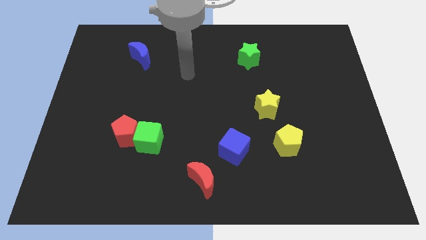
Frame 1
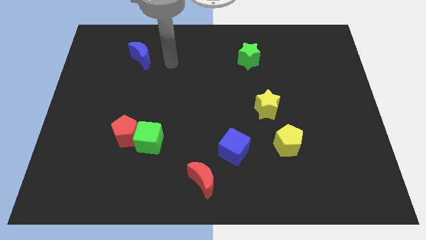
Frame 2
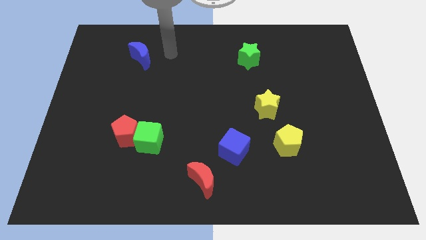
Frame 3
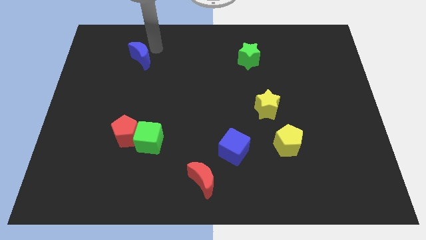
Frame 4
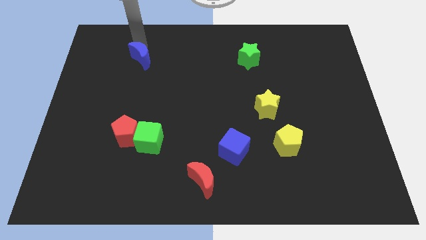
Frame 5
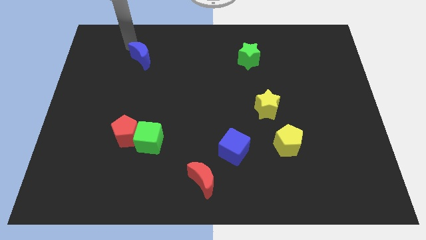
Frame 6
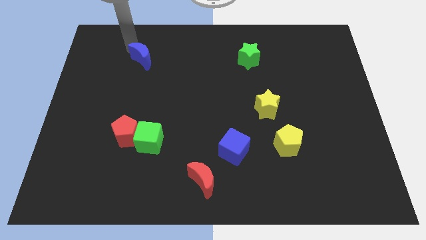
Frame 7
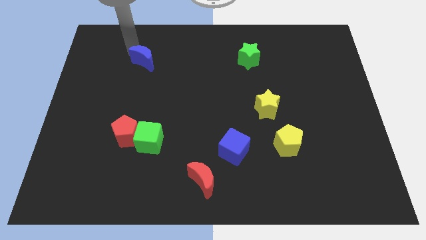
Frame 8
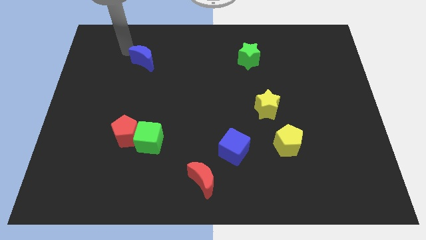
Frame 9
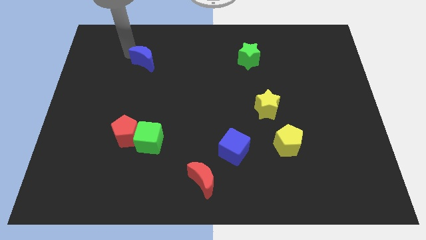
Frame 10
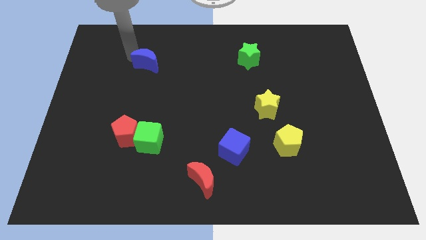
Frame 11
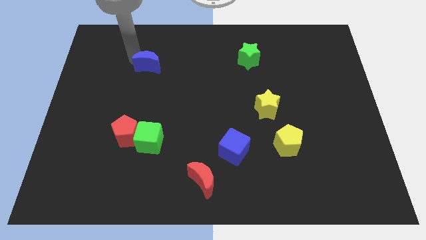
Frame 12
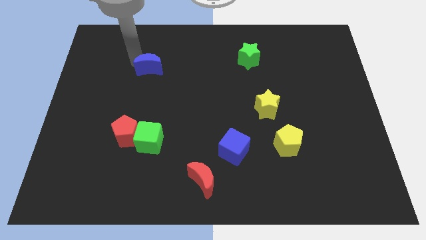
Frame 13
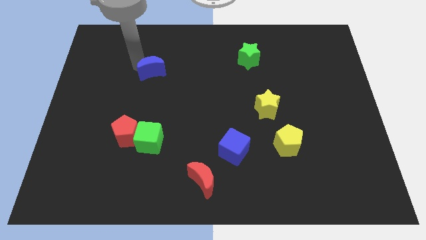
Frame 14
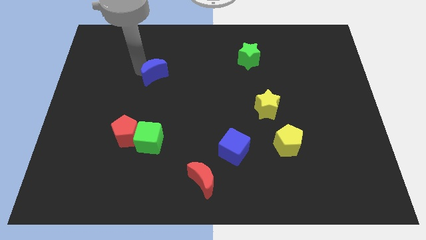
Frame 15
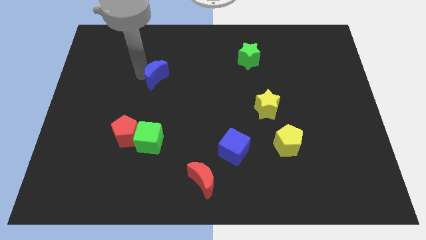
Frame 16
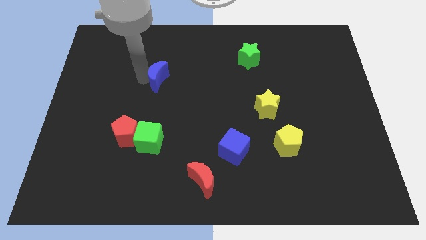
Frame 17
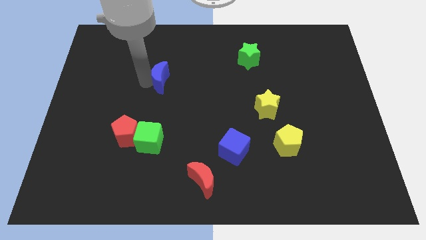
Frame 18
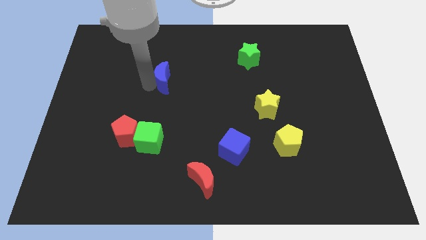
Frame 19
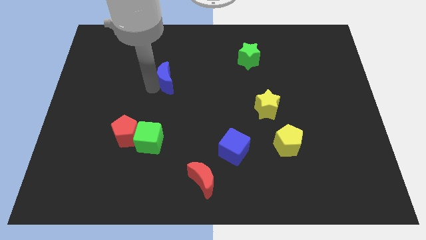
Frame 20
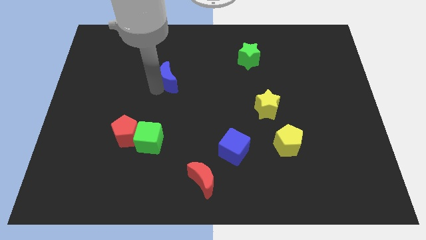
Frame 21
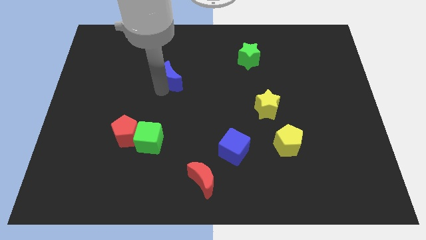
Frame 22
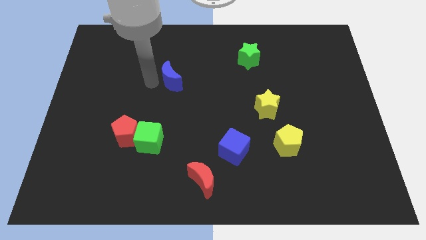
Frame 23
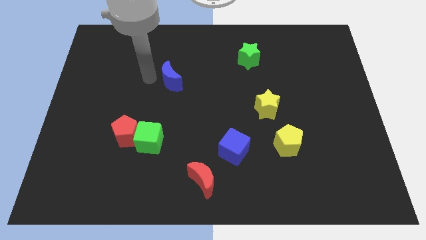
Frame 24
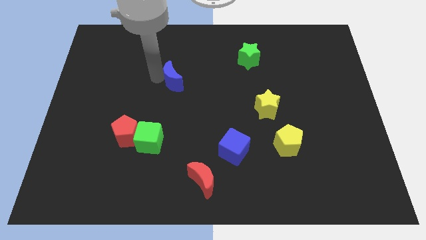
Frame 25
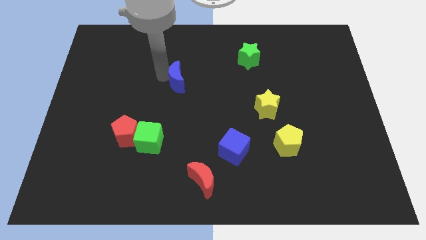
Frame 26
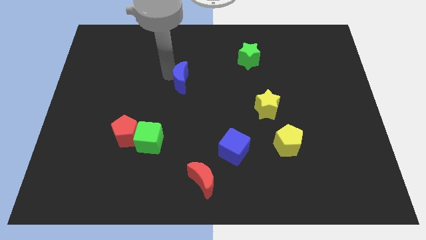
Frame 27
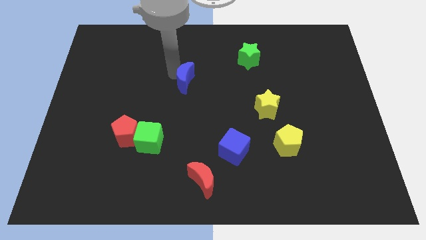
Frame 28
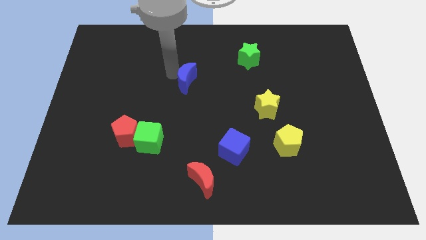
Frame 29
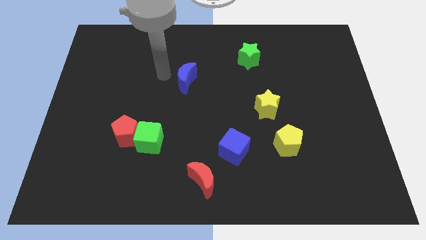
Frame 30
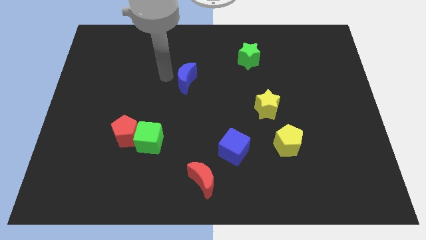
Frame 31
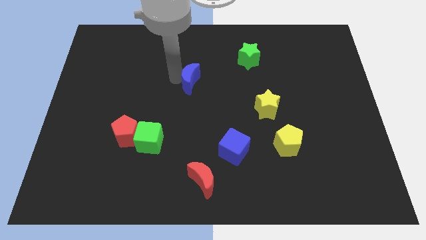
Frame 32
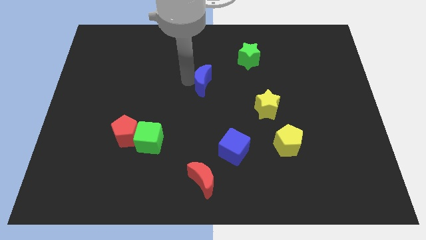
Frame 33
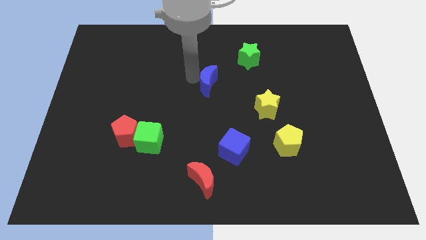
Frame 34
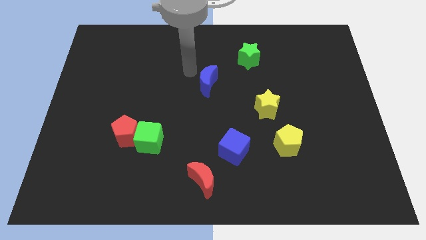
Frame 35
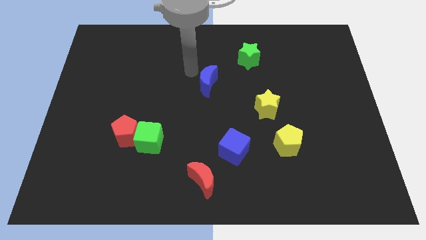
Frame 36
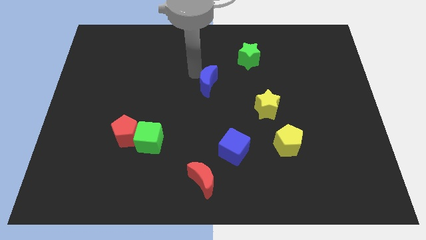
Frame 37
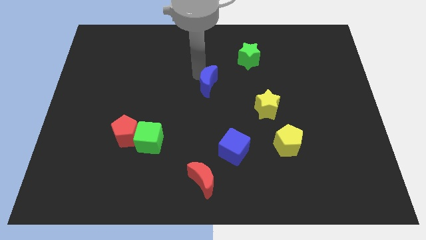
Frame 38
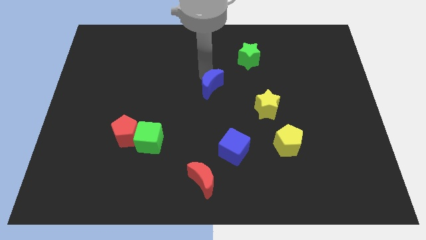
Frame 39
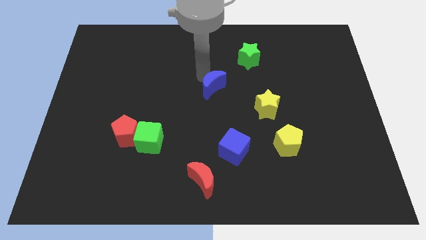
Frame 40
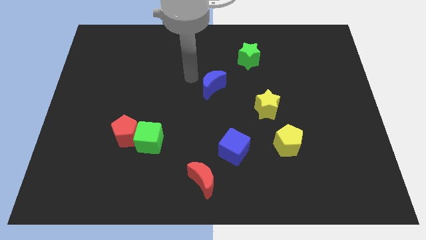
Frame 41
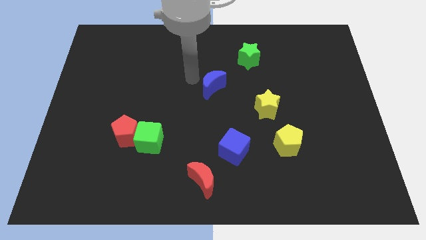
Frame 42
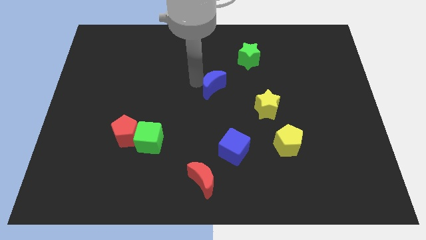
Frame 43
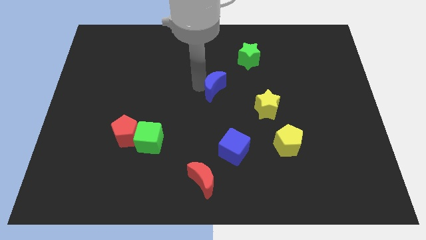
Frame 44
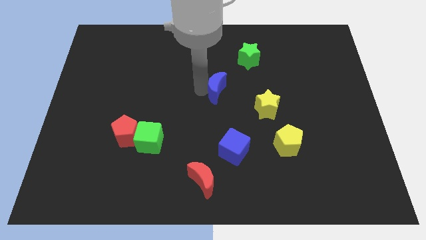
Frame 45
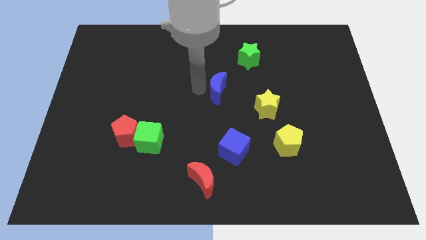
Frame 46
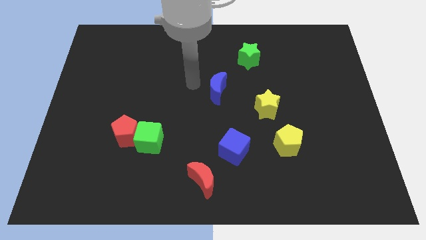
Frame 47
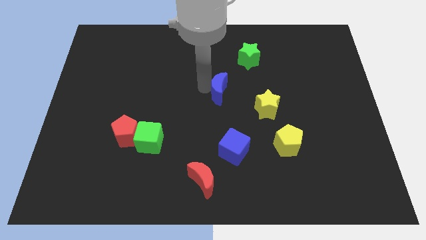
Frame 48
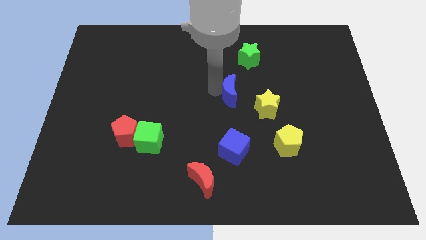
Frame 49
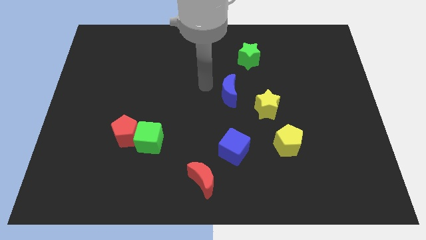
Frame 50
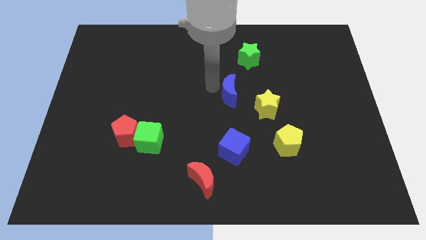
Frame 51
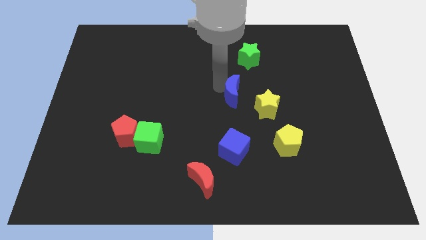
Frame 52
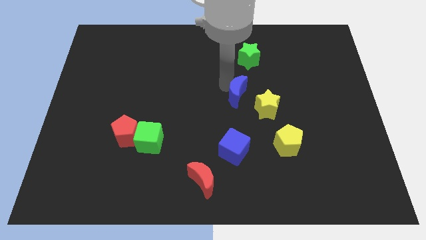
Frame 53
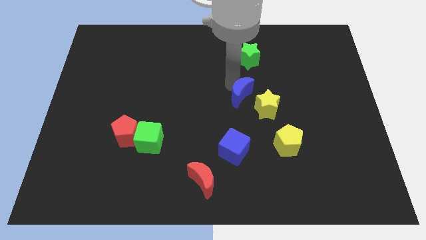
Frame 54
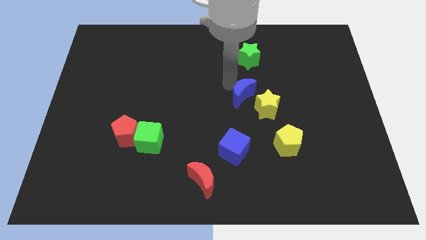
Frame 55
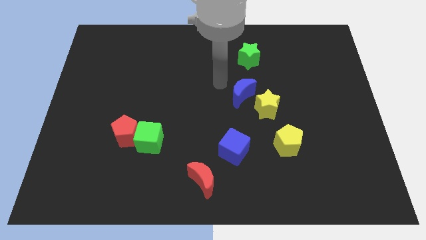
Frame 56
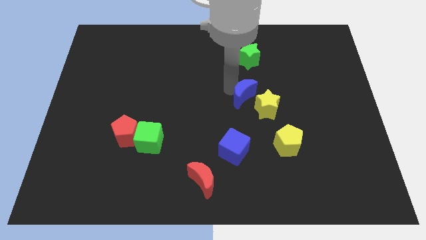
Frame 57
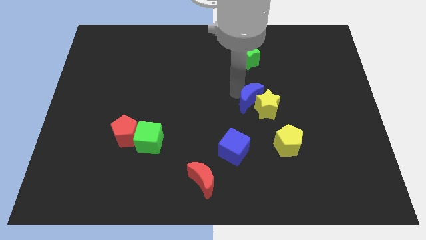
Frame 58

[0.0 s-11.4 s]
put the blue moon to the yellow star
